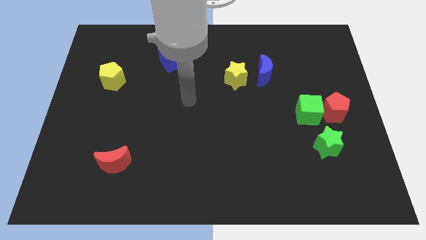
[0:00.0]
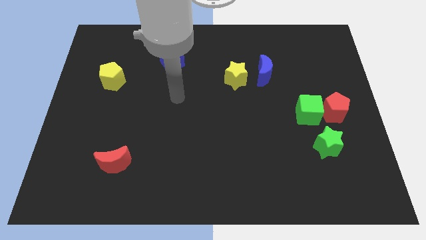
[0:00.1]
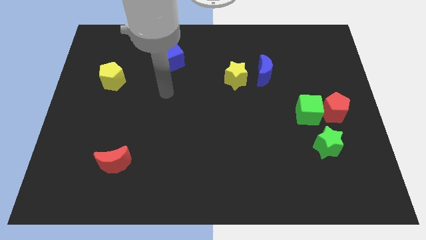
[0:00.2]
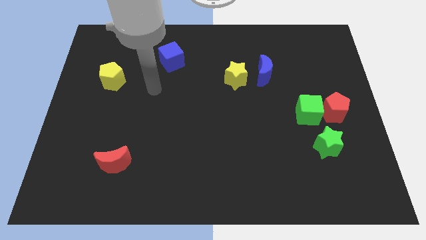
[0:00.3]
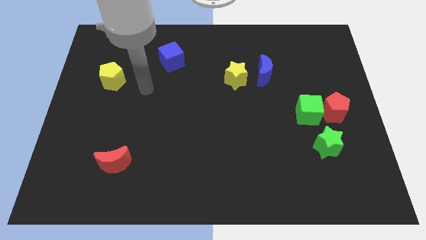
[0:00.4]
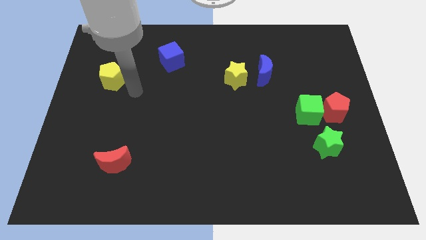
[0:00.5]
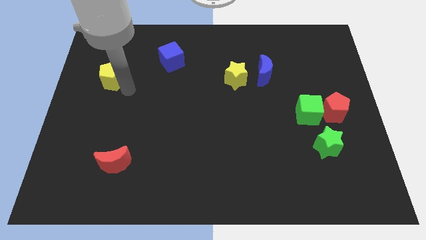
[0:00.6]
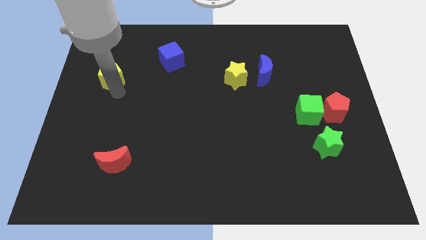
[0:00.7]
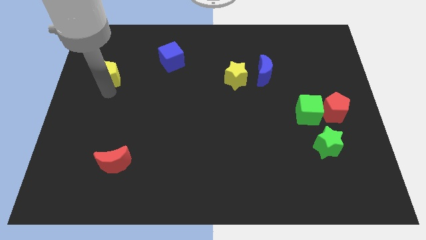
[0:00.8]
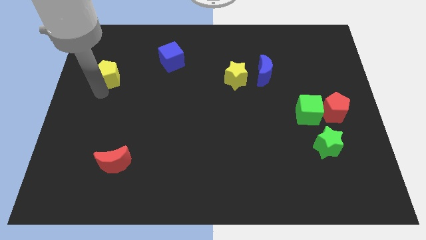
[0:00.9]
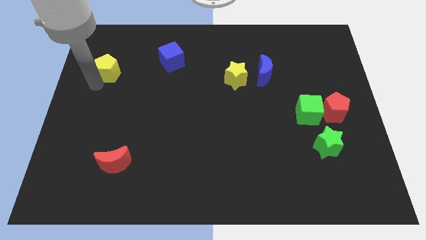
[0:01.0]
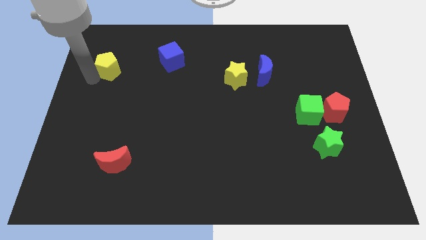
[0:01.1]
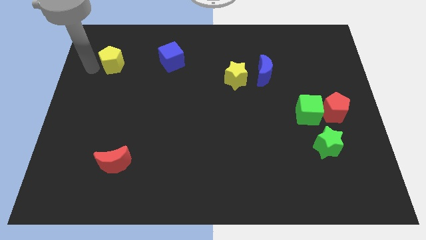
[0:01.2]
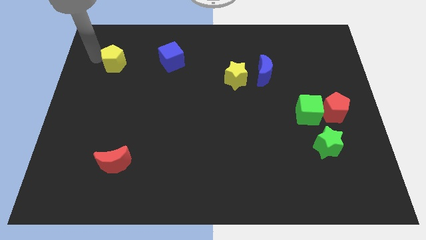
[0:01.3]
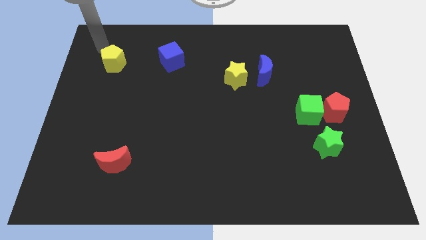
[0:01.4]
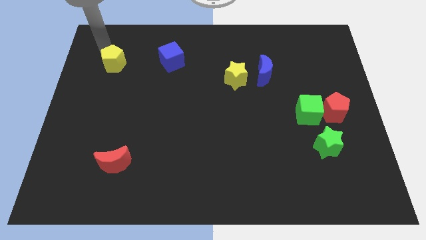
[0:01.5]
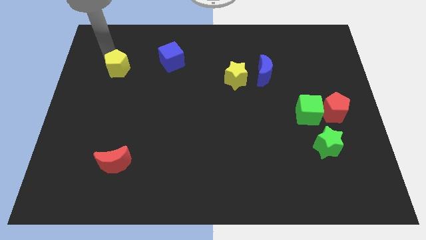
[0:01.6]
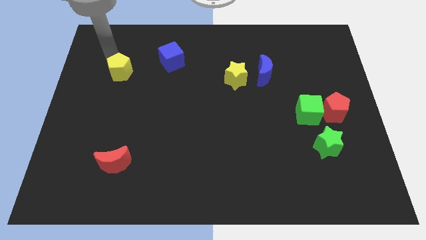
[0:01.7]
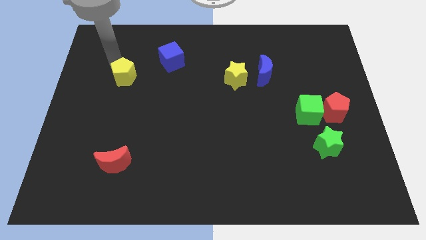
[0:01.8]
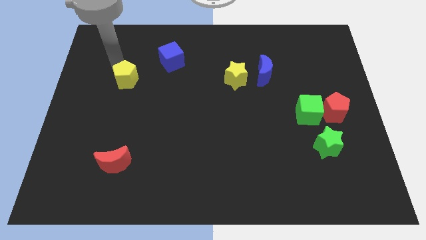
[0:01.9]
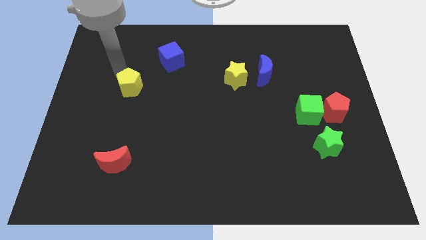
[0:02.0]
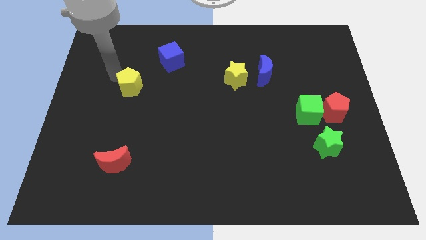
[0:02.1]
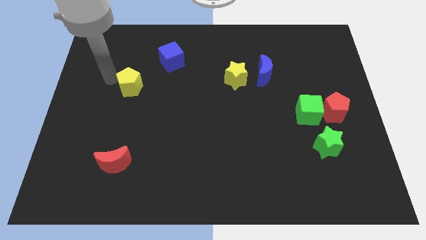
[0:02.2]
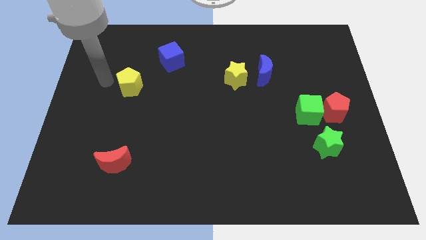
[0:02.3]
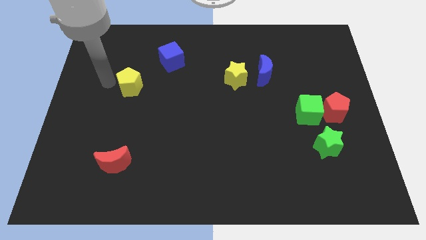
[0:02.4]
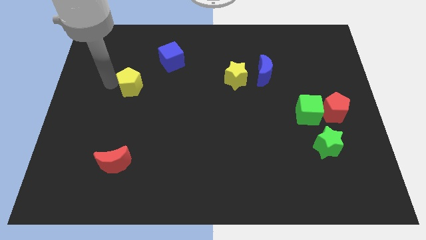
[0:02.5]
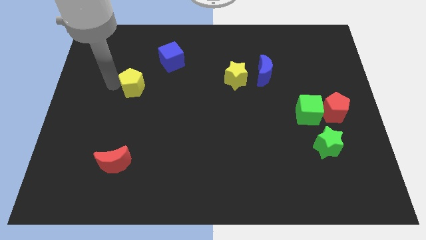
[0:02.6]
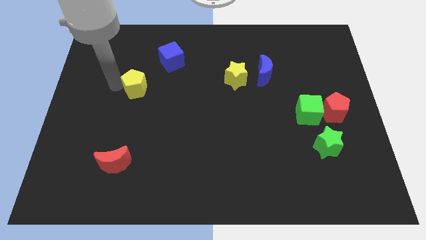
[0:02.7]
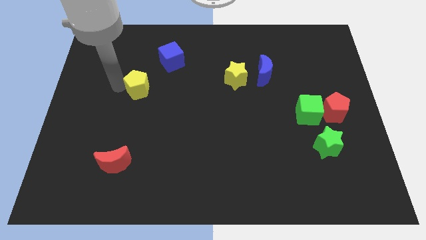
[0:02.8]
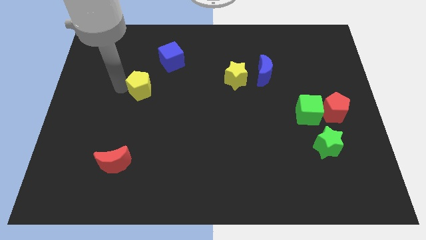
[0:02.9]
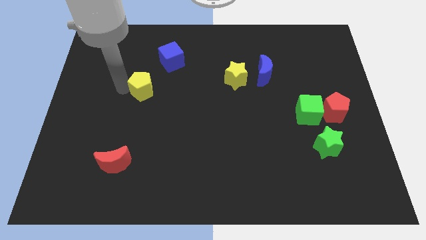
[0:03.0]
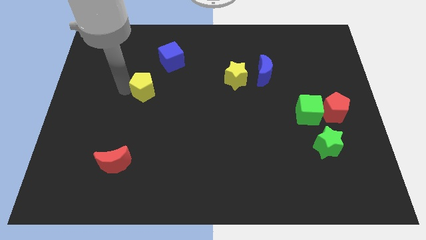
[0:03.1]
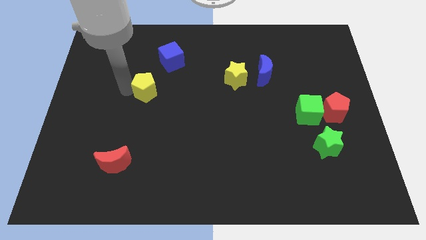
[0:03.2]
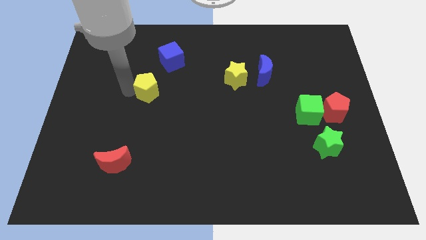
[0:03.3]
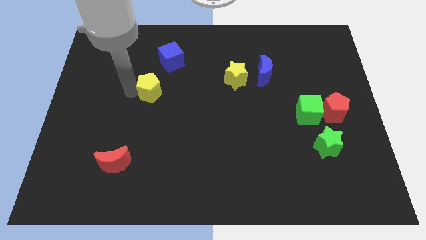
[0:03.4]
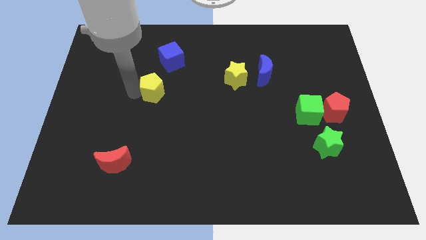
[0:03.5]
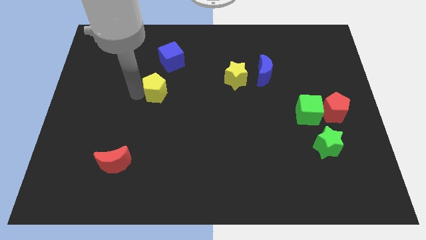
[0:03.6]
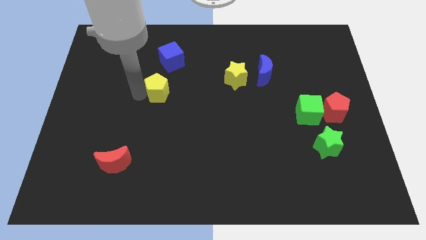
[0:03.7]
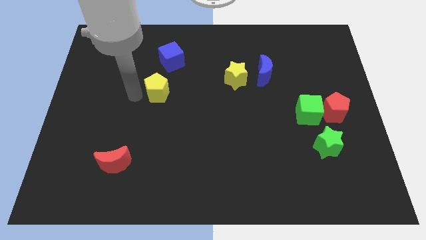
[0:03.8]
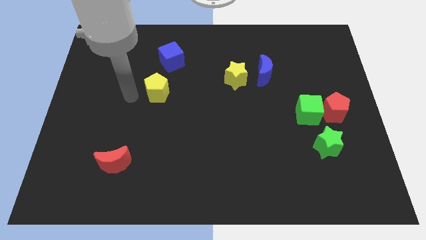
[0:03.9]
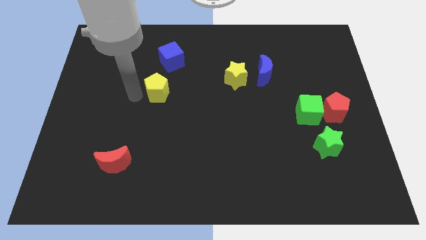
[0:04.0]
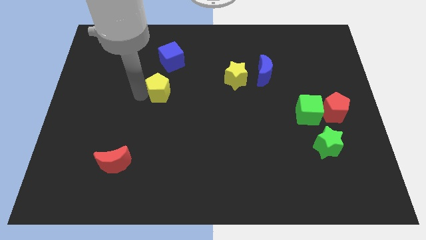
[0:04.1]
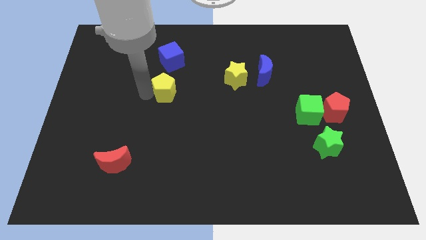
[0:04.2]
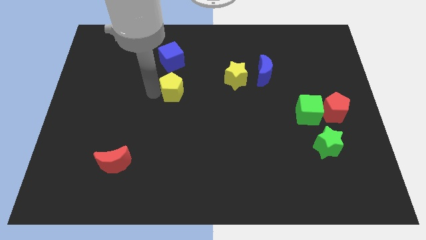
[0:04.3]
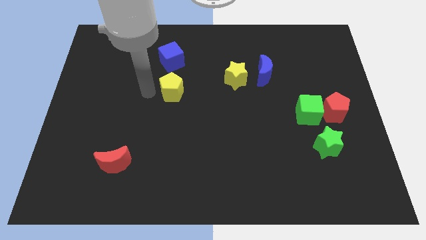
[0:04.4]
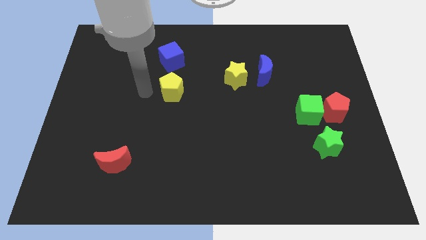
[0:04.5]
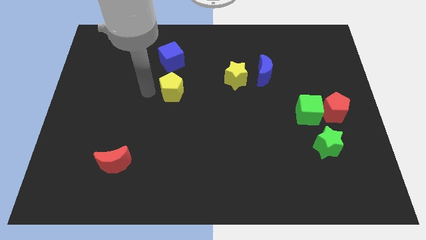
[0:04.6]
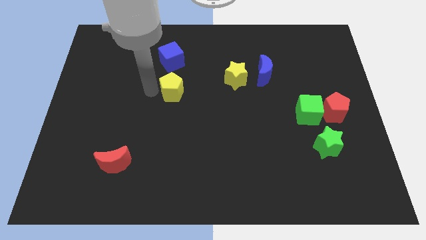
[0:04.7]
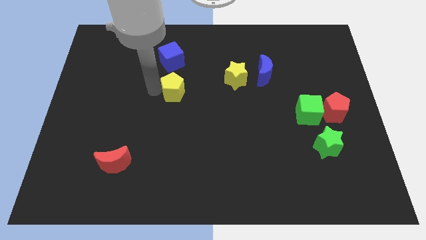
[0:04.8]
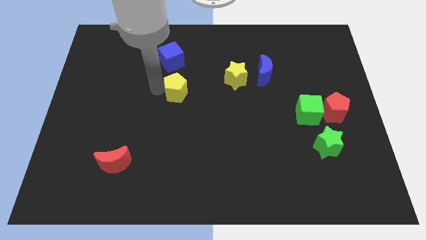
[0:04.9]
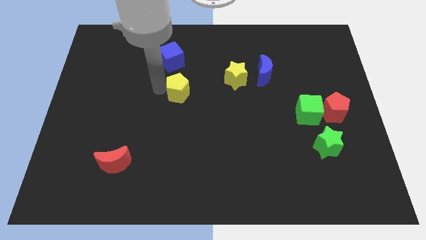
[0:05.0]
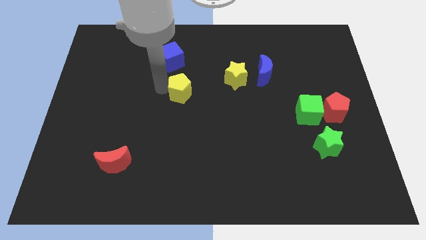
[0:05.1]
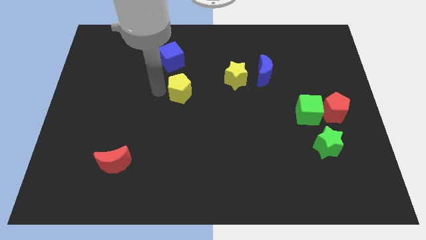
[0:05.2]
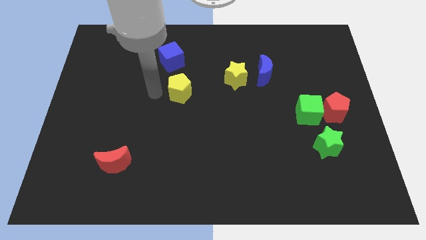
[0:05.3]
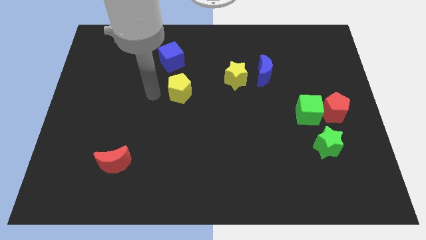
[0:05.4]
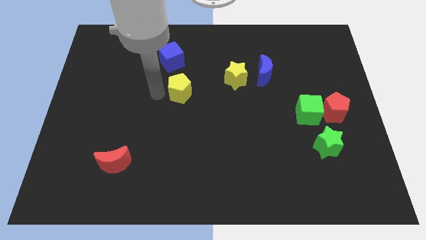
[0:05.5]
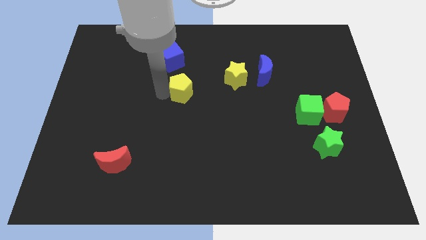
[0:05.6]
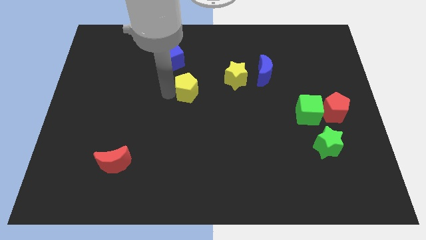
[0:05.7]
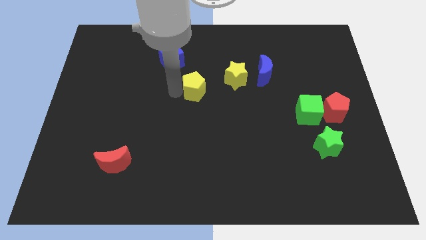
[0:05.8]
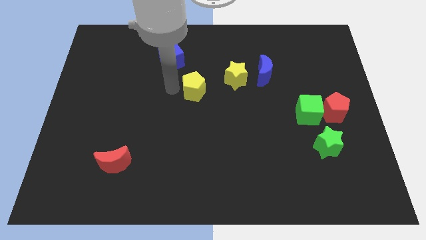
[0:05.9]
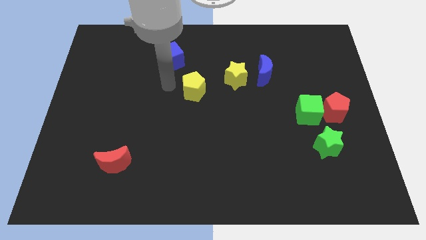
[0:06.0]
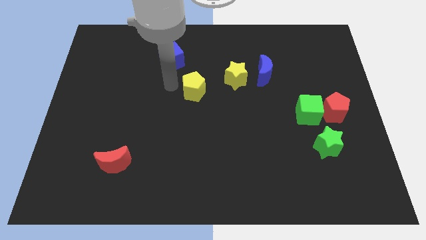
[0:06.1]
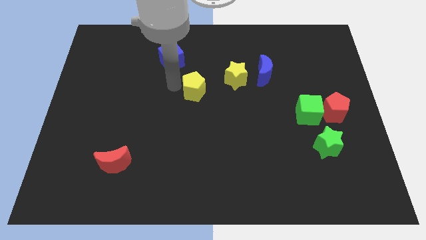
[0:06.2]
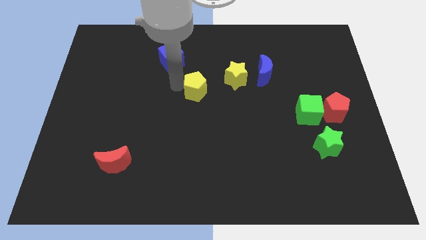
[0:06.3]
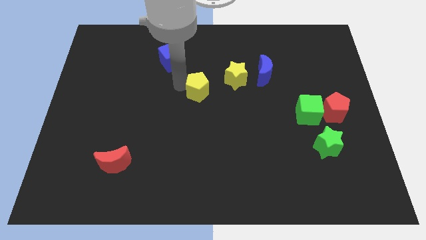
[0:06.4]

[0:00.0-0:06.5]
push the yellow pentagon to the bottom left side of the yellow star

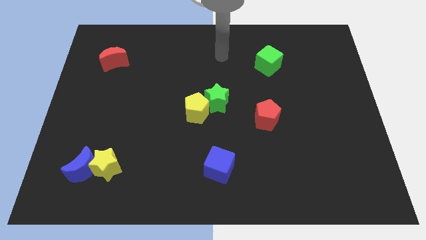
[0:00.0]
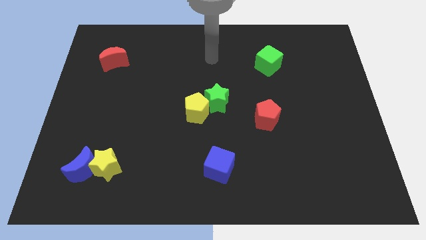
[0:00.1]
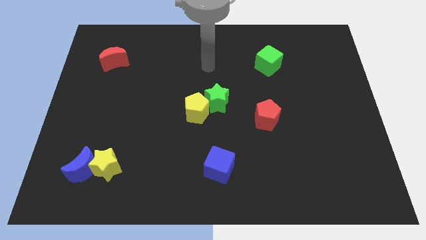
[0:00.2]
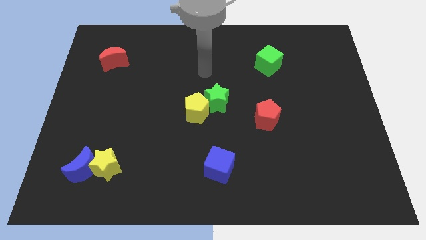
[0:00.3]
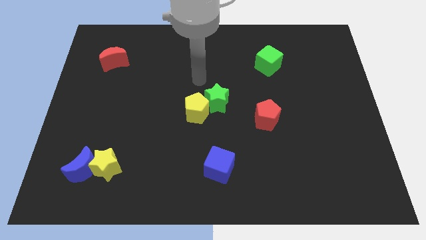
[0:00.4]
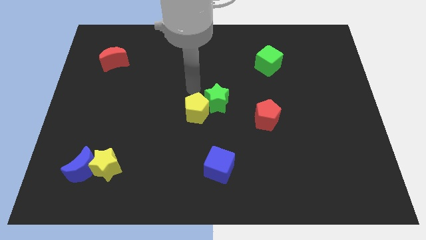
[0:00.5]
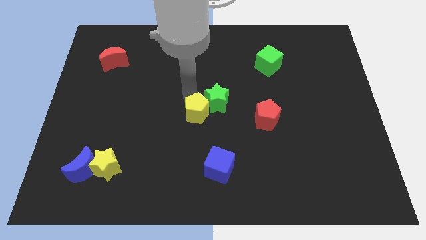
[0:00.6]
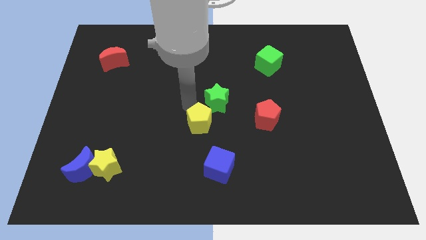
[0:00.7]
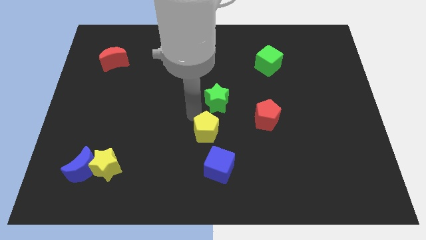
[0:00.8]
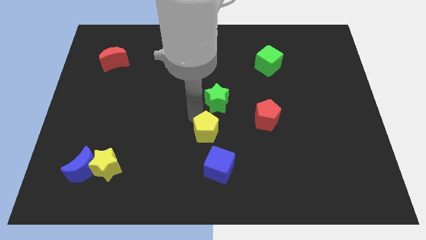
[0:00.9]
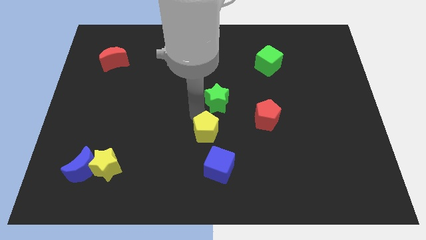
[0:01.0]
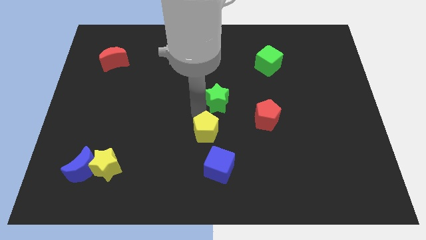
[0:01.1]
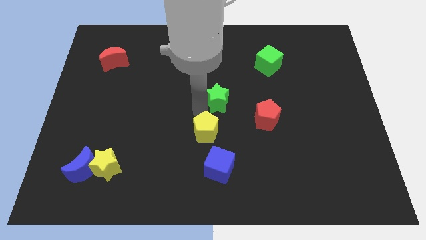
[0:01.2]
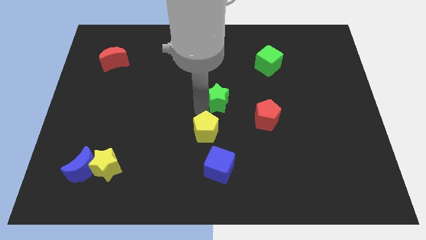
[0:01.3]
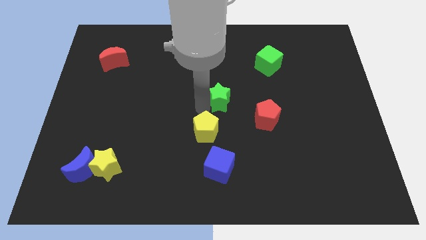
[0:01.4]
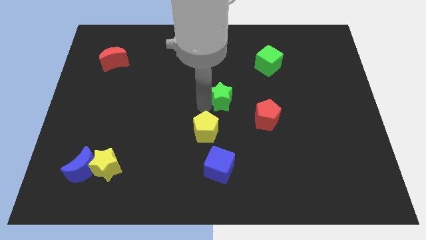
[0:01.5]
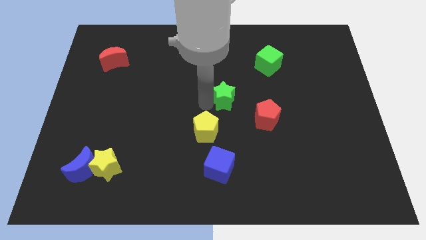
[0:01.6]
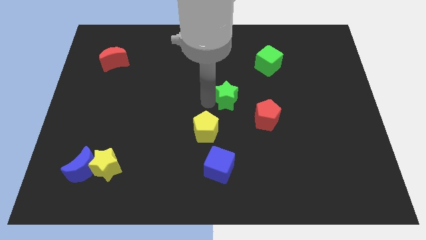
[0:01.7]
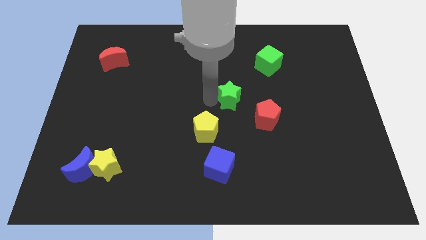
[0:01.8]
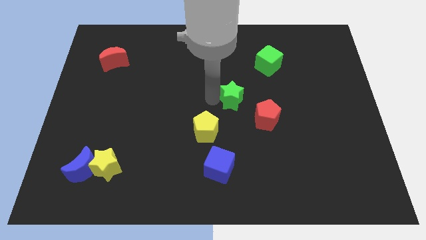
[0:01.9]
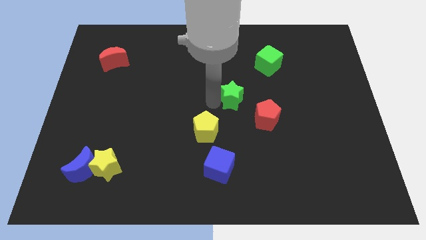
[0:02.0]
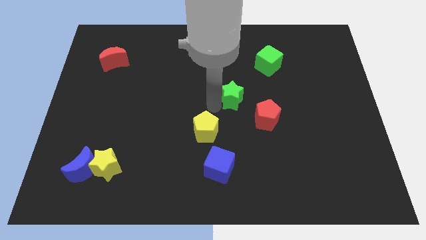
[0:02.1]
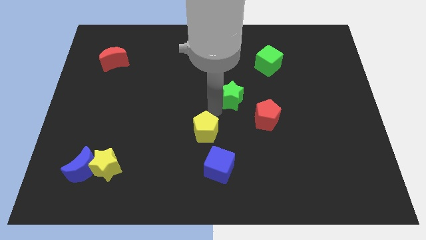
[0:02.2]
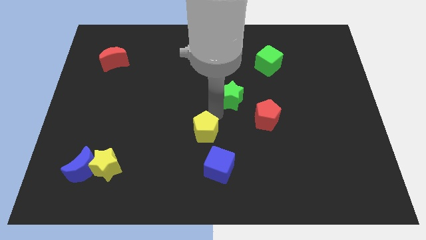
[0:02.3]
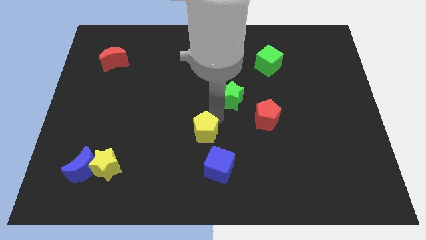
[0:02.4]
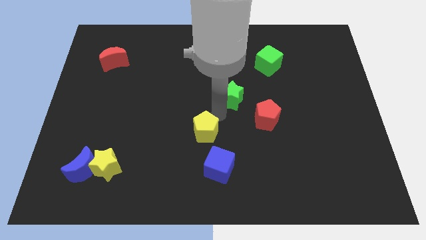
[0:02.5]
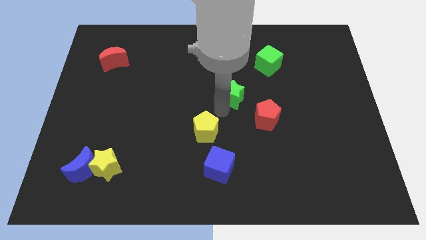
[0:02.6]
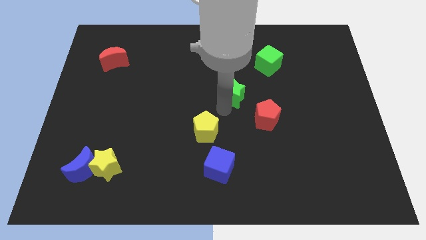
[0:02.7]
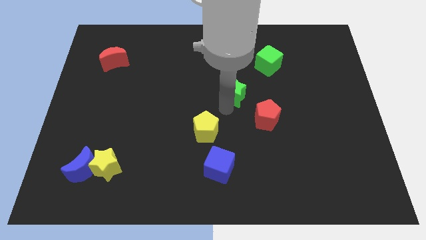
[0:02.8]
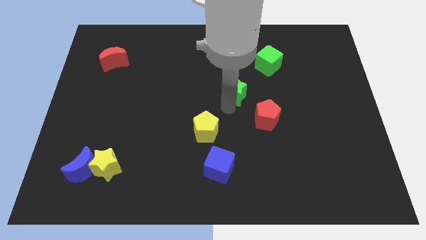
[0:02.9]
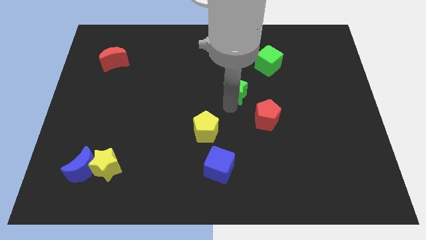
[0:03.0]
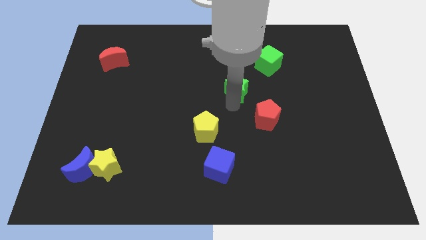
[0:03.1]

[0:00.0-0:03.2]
put the green star diagonally down and to the left of the green cube
